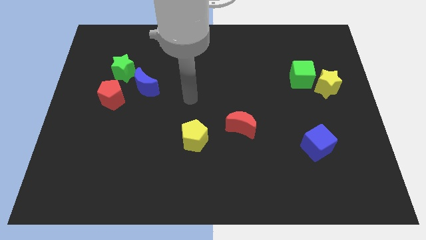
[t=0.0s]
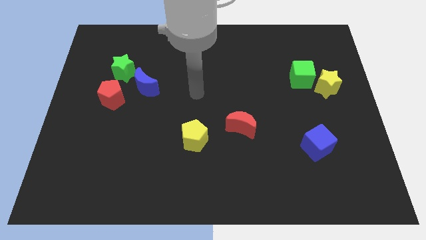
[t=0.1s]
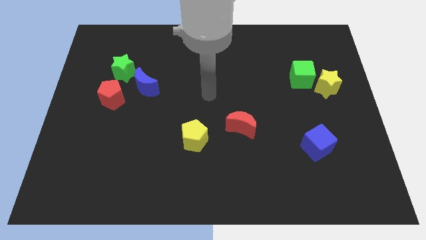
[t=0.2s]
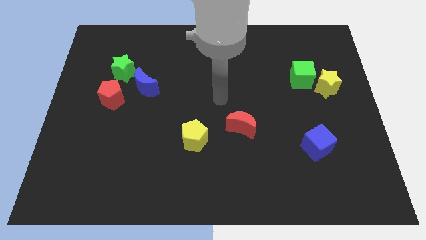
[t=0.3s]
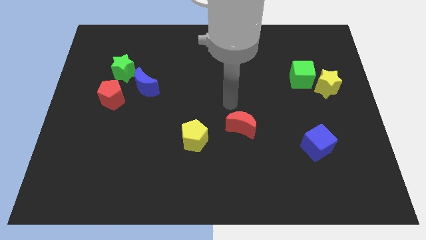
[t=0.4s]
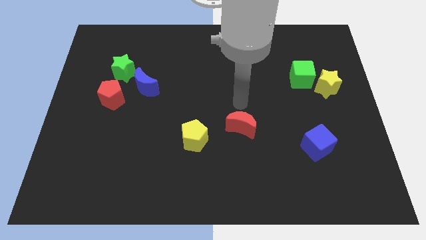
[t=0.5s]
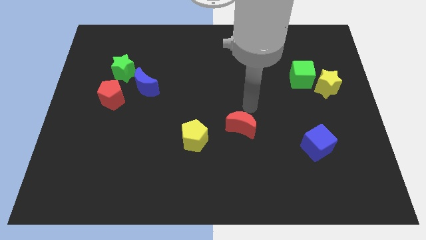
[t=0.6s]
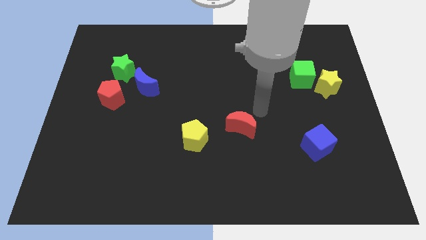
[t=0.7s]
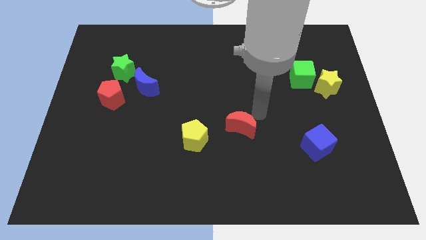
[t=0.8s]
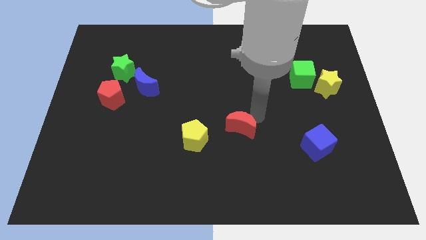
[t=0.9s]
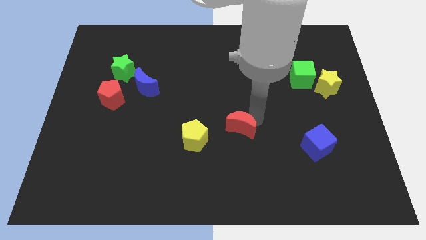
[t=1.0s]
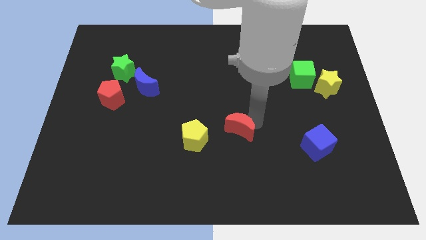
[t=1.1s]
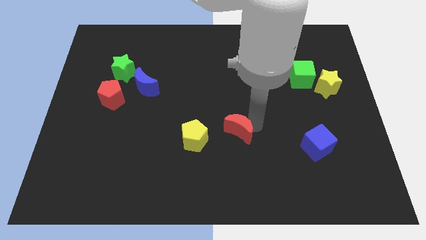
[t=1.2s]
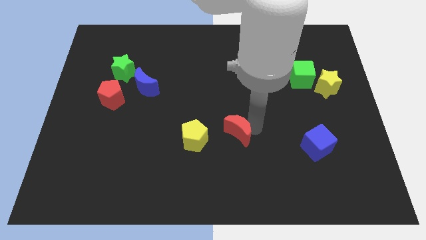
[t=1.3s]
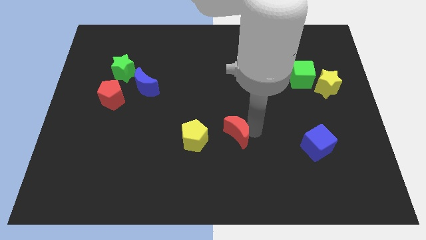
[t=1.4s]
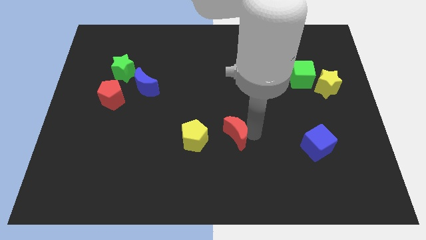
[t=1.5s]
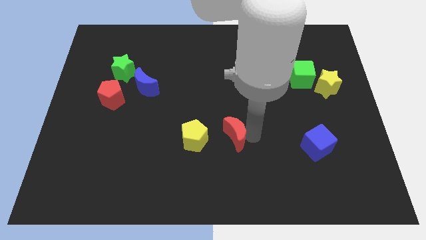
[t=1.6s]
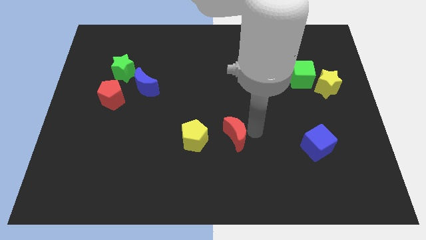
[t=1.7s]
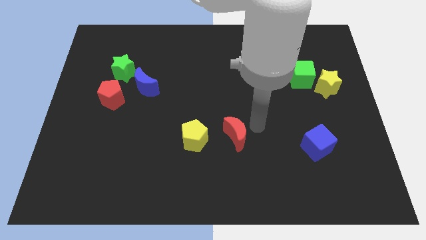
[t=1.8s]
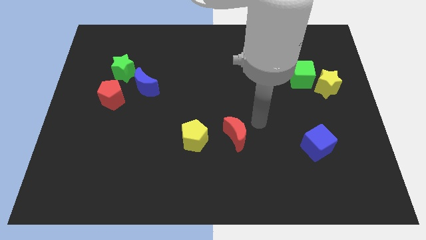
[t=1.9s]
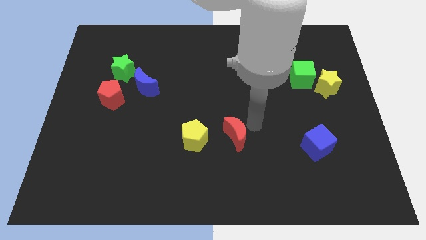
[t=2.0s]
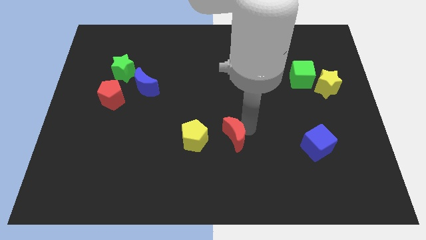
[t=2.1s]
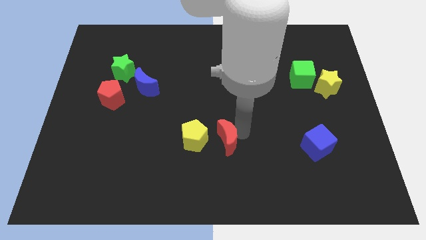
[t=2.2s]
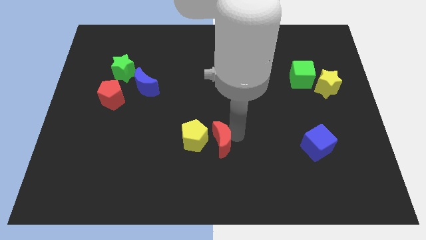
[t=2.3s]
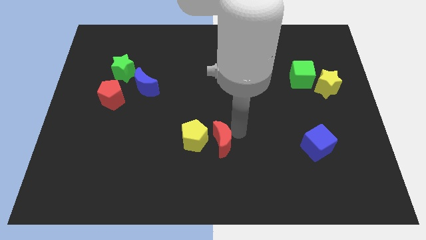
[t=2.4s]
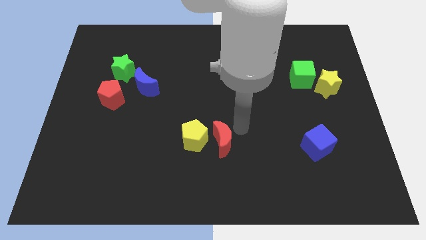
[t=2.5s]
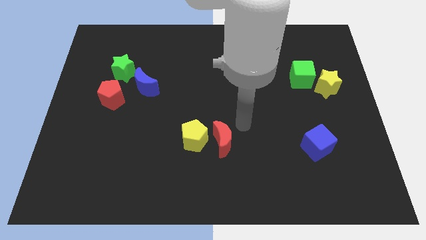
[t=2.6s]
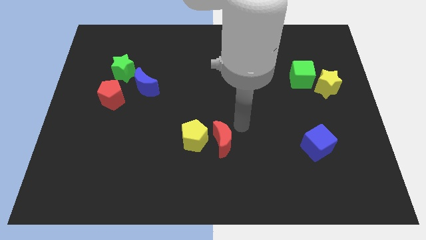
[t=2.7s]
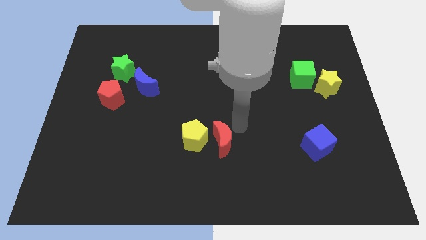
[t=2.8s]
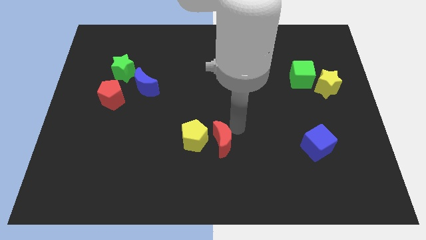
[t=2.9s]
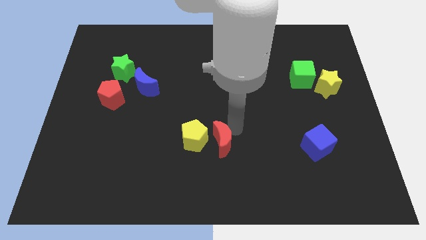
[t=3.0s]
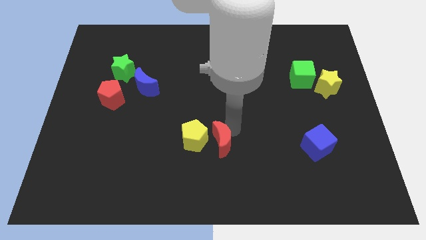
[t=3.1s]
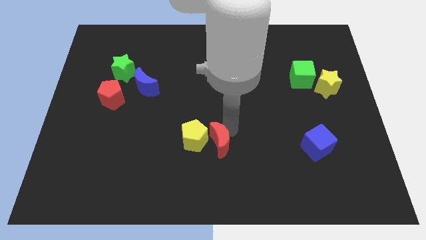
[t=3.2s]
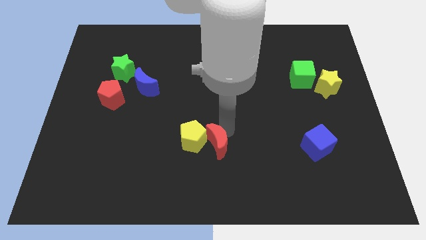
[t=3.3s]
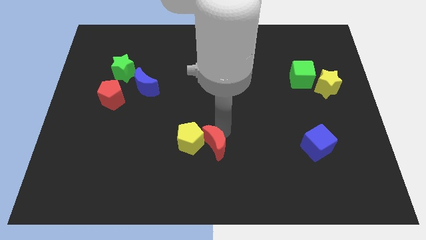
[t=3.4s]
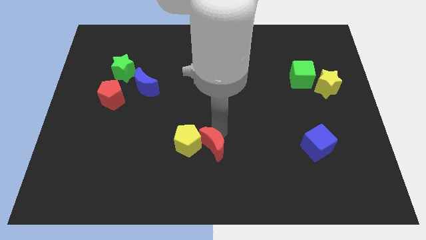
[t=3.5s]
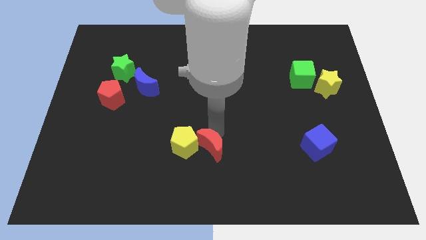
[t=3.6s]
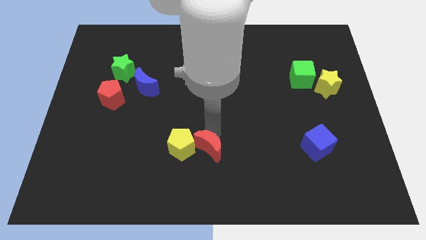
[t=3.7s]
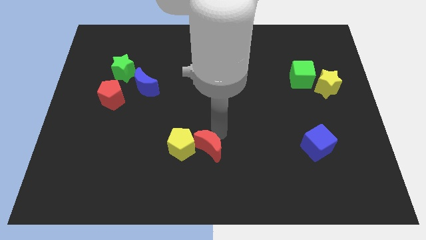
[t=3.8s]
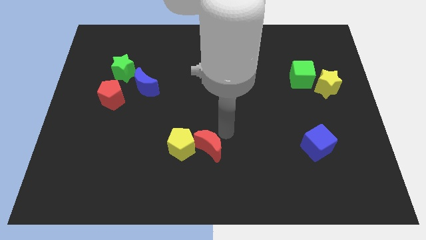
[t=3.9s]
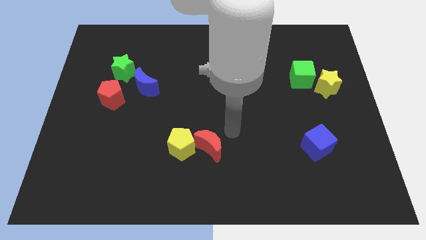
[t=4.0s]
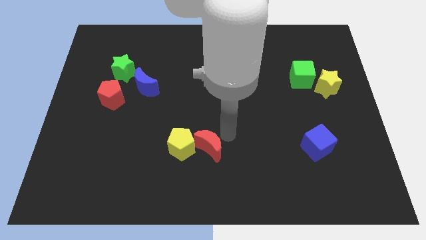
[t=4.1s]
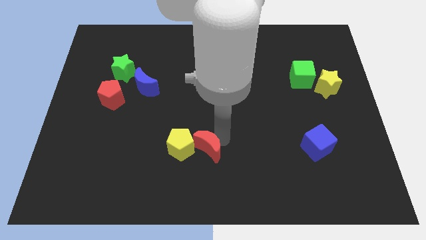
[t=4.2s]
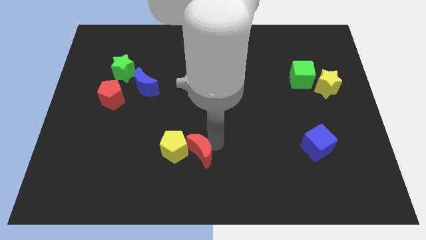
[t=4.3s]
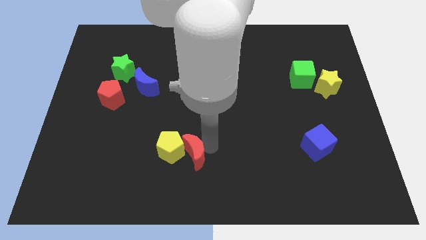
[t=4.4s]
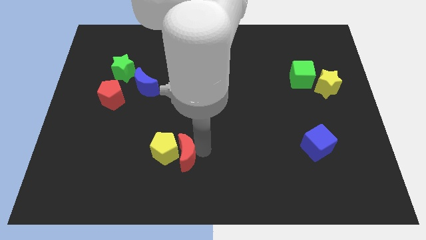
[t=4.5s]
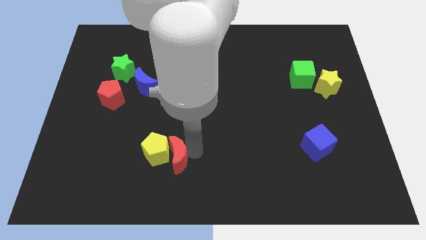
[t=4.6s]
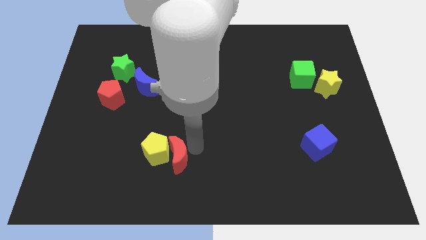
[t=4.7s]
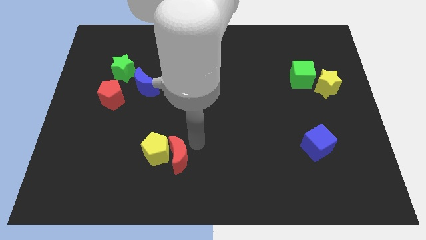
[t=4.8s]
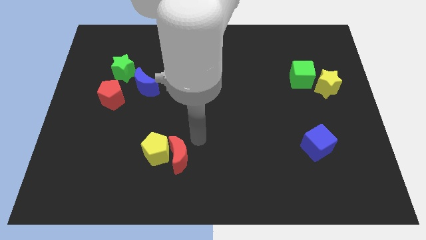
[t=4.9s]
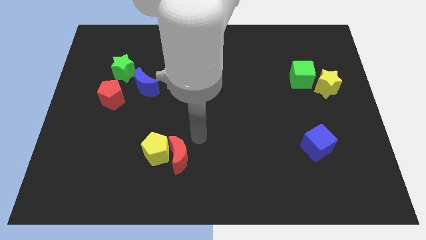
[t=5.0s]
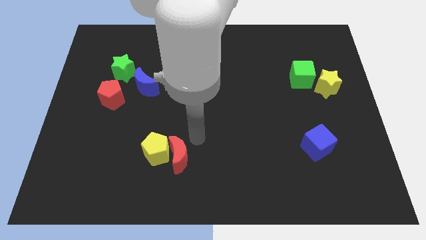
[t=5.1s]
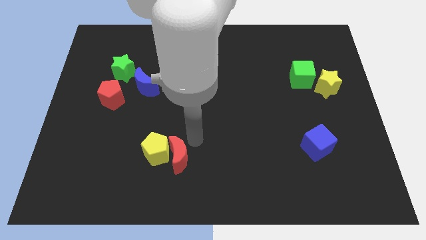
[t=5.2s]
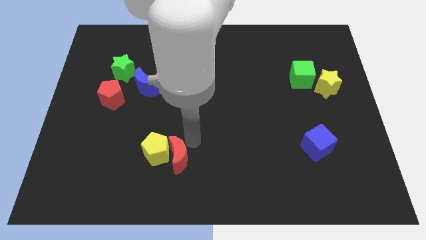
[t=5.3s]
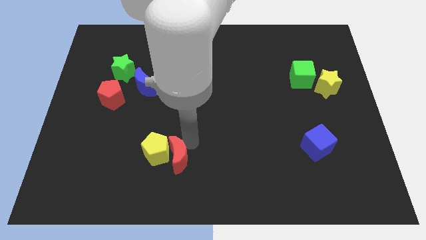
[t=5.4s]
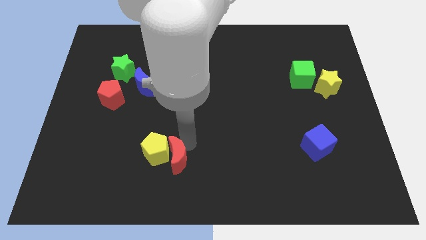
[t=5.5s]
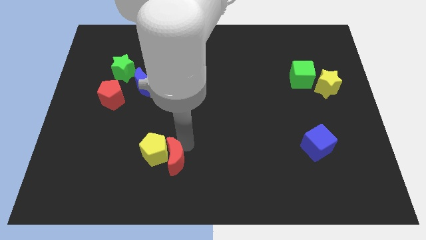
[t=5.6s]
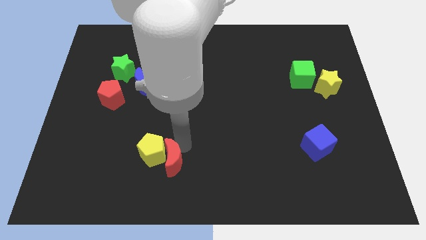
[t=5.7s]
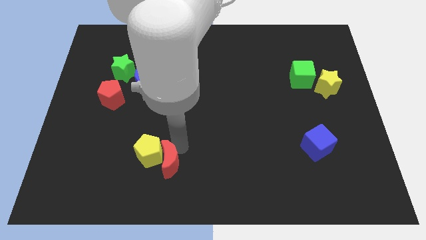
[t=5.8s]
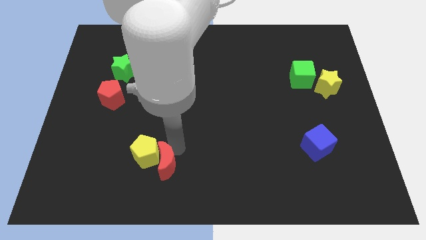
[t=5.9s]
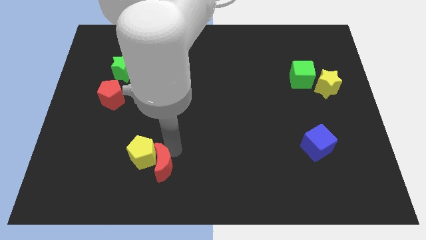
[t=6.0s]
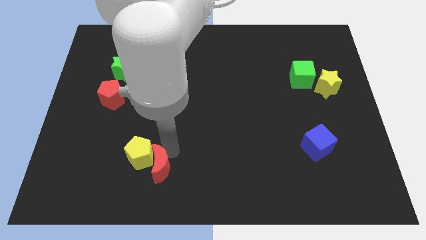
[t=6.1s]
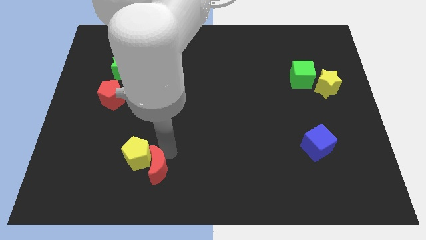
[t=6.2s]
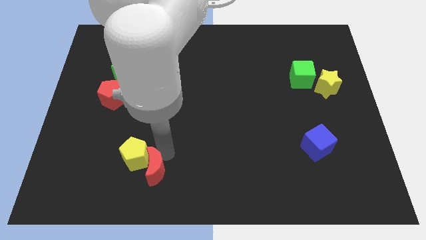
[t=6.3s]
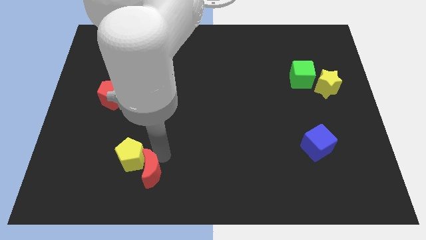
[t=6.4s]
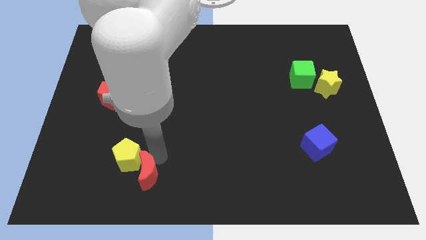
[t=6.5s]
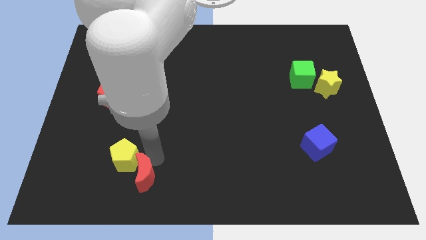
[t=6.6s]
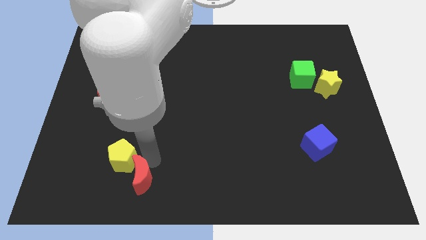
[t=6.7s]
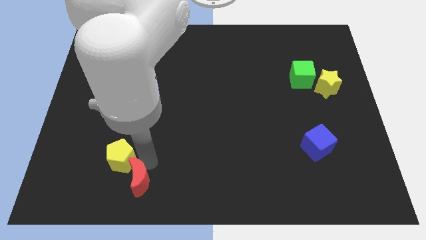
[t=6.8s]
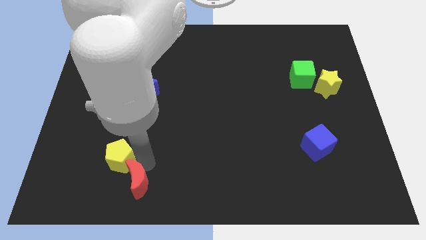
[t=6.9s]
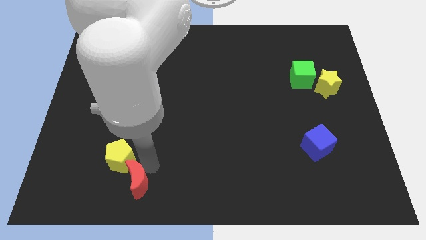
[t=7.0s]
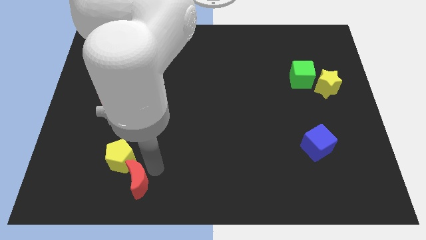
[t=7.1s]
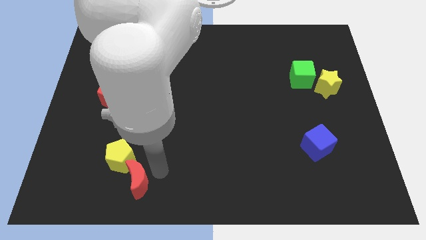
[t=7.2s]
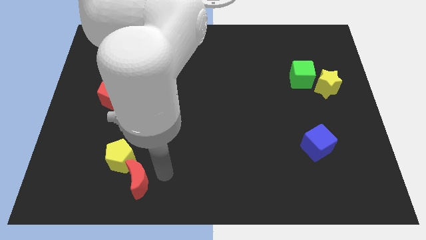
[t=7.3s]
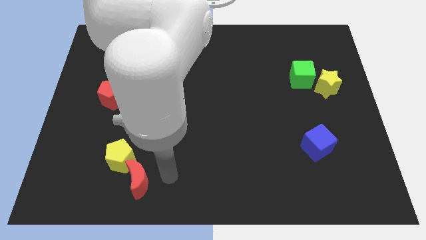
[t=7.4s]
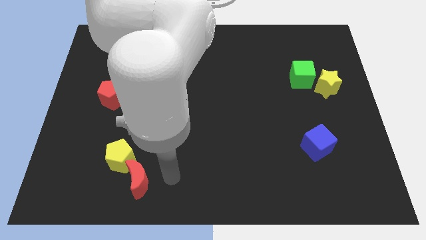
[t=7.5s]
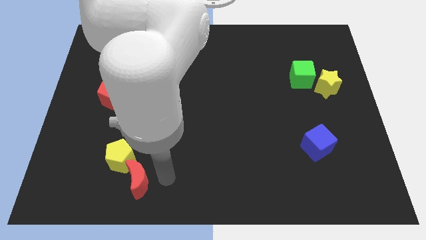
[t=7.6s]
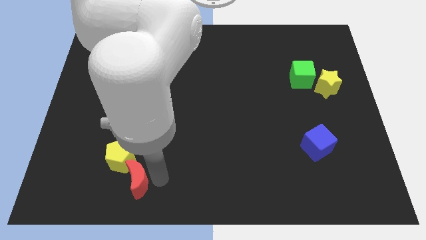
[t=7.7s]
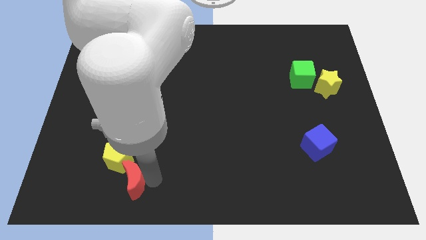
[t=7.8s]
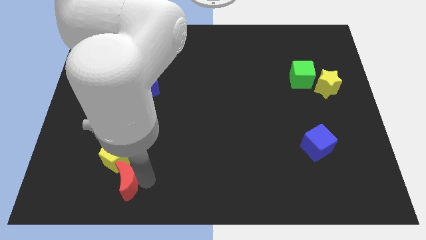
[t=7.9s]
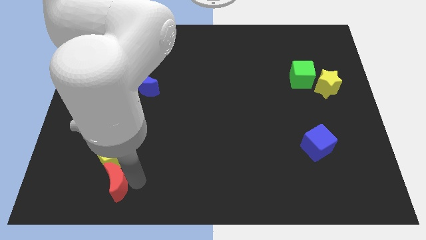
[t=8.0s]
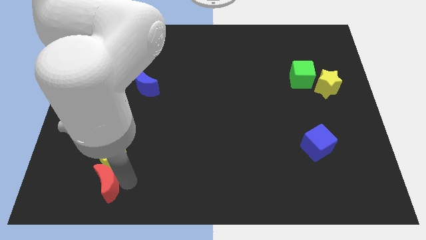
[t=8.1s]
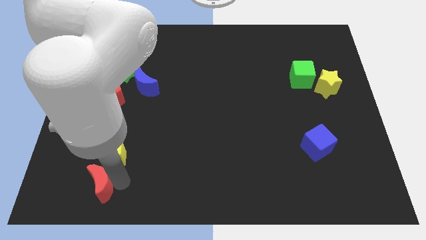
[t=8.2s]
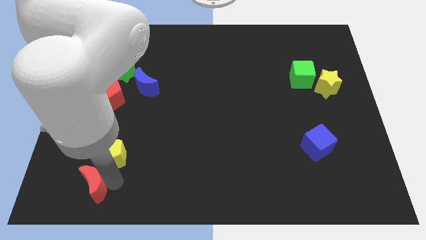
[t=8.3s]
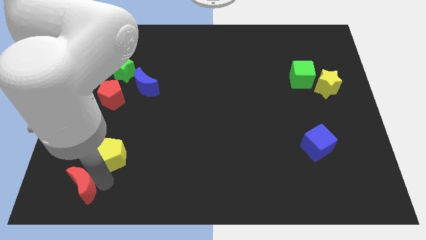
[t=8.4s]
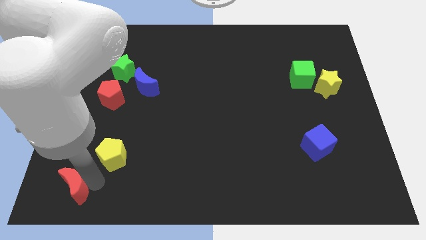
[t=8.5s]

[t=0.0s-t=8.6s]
push the red moon to the bottom left corner
